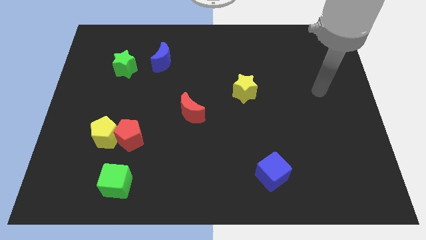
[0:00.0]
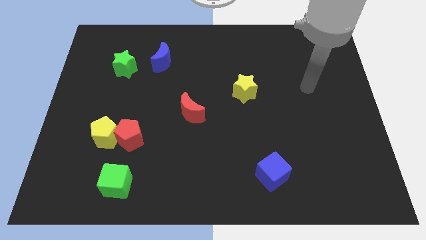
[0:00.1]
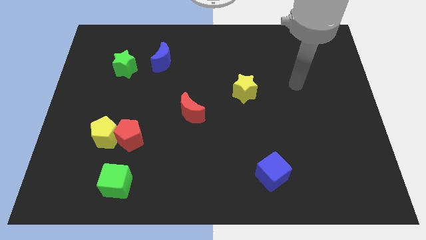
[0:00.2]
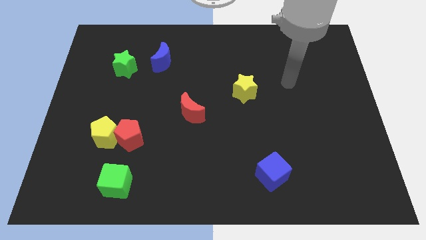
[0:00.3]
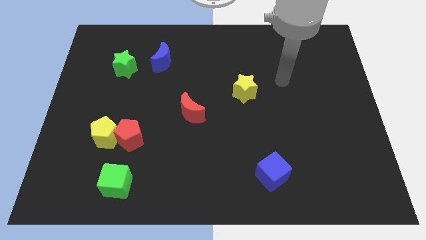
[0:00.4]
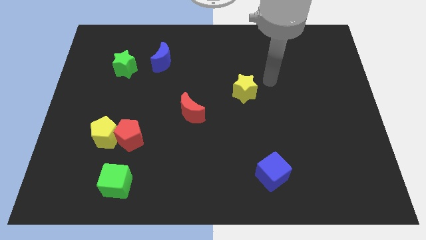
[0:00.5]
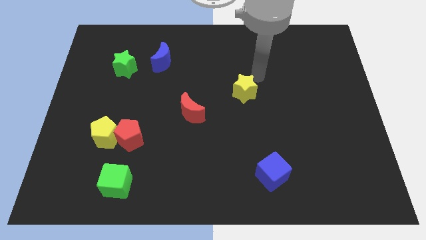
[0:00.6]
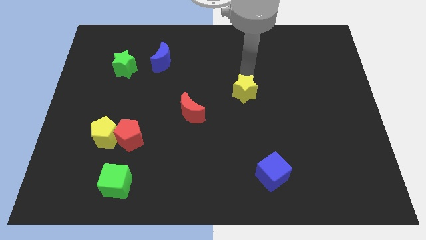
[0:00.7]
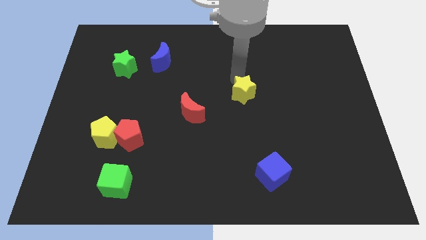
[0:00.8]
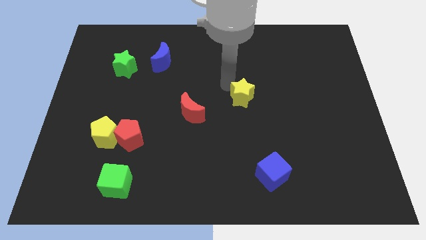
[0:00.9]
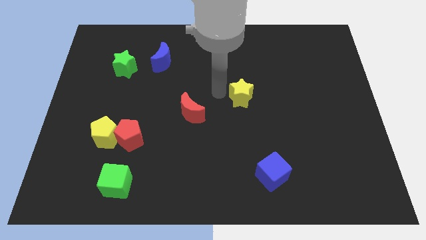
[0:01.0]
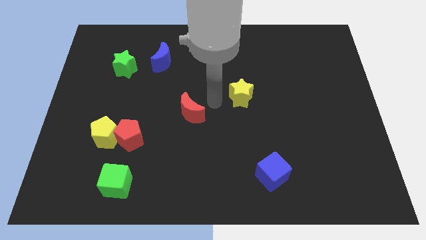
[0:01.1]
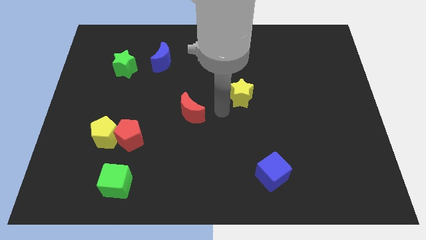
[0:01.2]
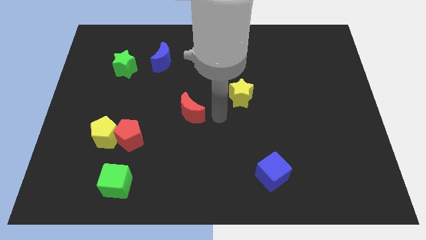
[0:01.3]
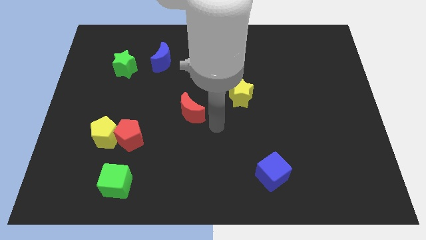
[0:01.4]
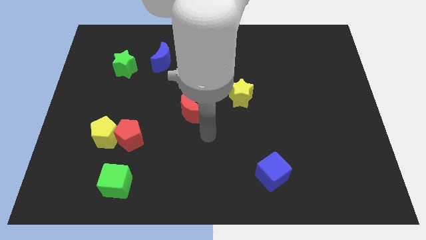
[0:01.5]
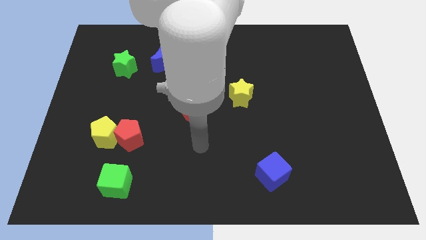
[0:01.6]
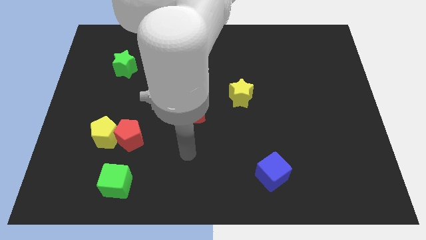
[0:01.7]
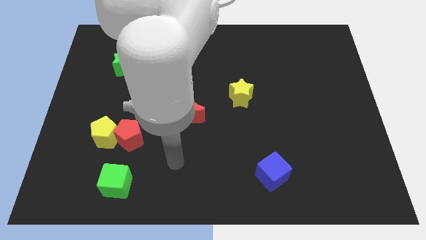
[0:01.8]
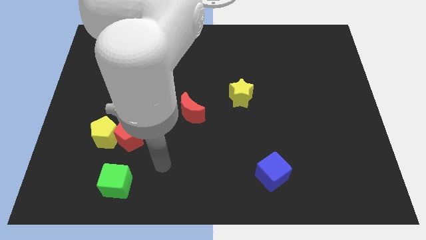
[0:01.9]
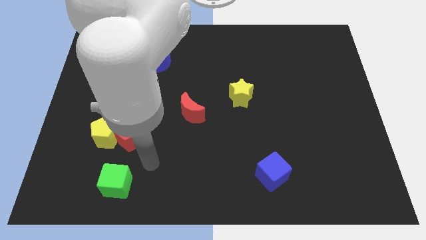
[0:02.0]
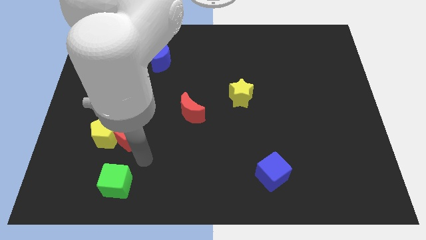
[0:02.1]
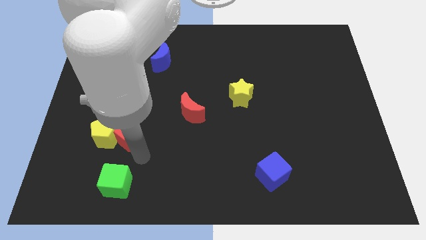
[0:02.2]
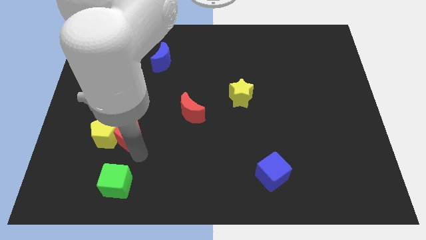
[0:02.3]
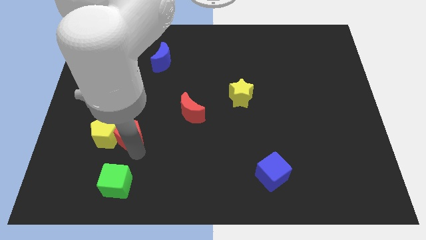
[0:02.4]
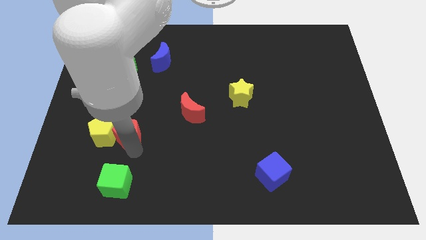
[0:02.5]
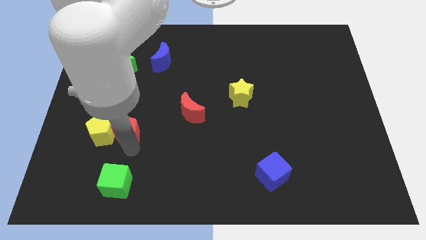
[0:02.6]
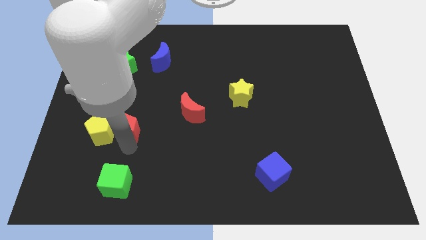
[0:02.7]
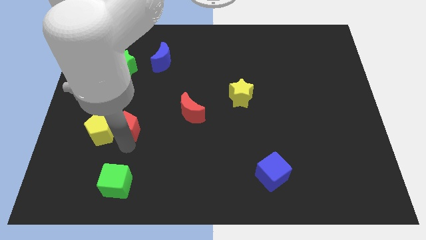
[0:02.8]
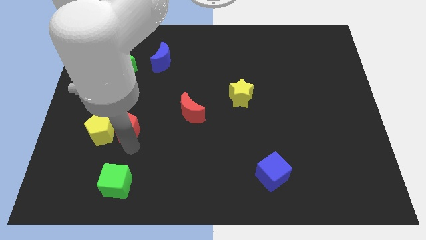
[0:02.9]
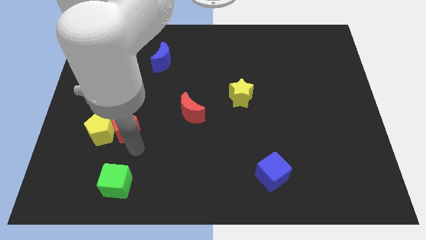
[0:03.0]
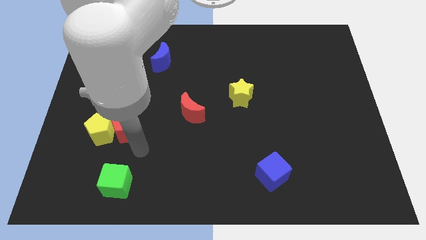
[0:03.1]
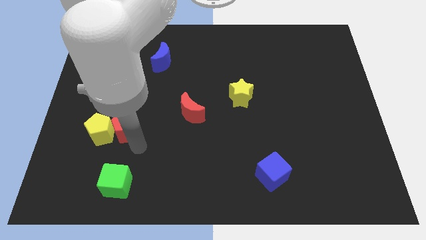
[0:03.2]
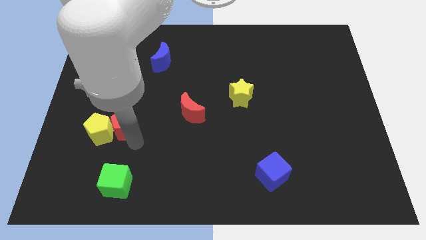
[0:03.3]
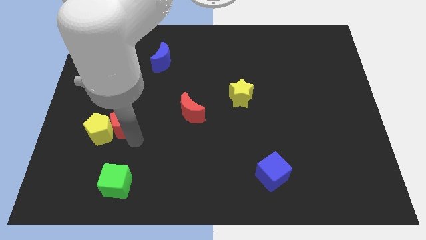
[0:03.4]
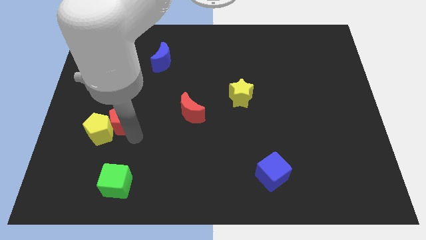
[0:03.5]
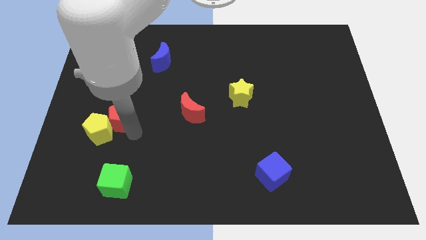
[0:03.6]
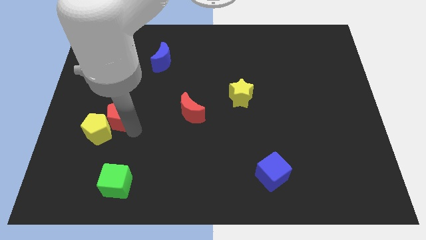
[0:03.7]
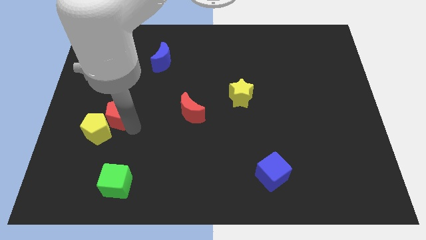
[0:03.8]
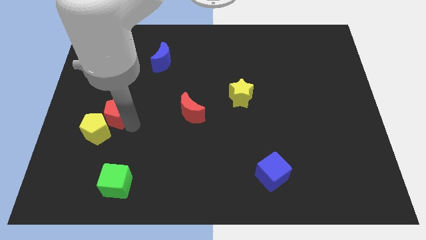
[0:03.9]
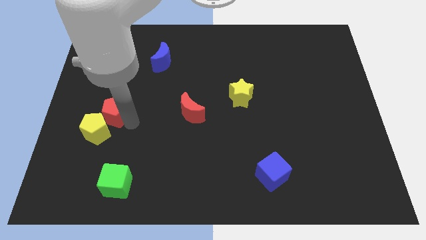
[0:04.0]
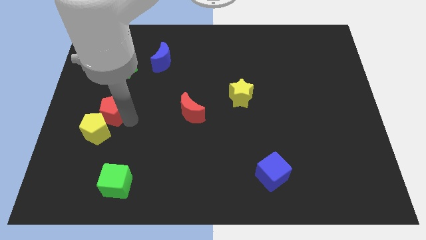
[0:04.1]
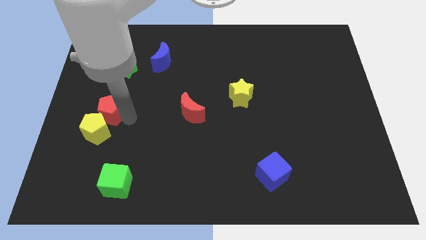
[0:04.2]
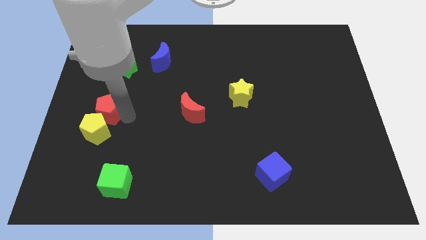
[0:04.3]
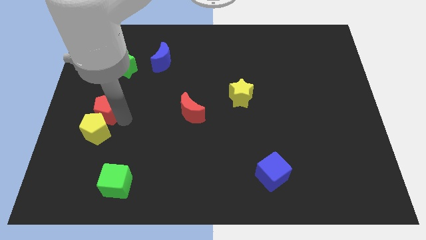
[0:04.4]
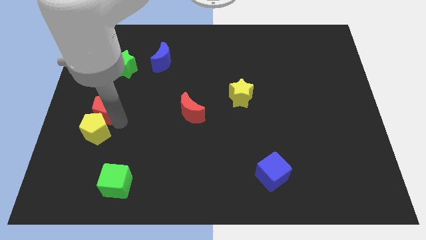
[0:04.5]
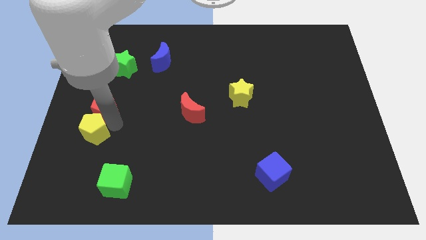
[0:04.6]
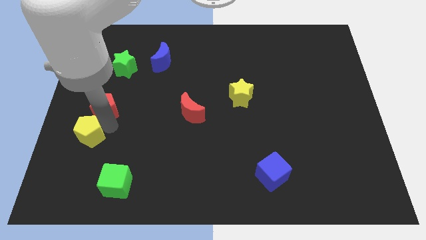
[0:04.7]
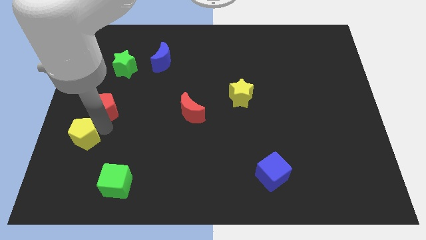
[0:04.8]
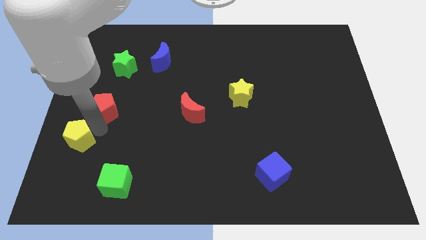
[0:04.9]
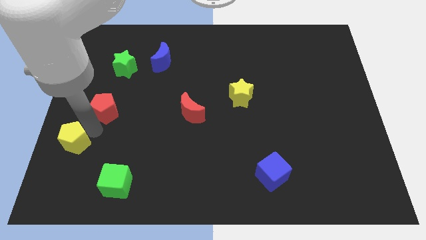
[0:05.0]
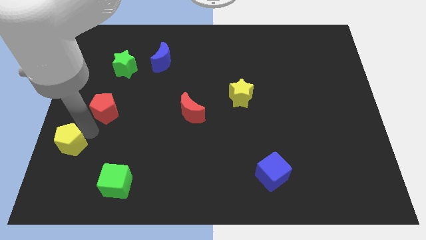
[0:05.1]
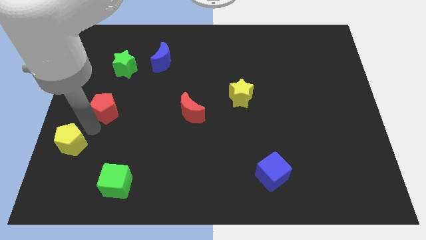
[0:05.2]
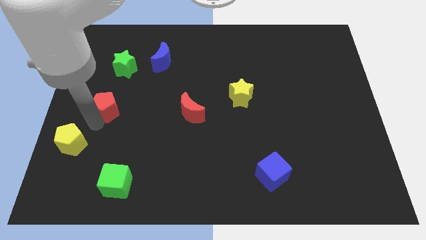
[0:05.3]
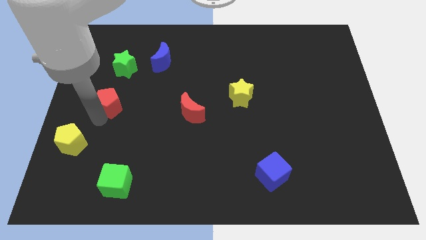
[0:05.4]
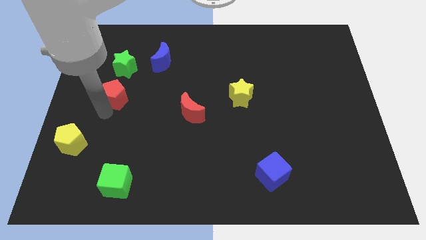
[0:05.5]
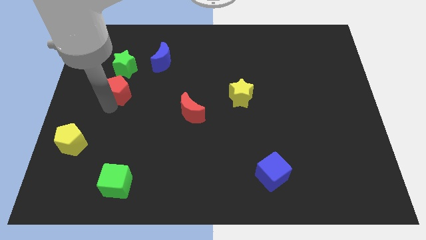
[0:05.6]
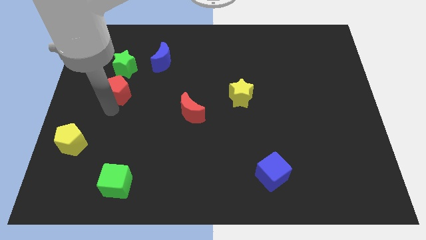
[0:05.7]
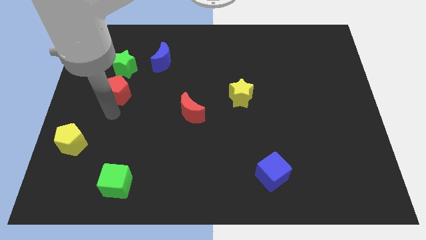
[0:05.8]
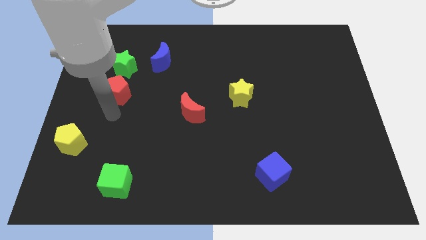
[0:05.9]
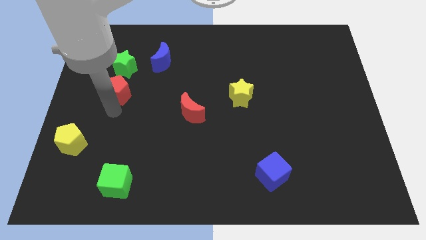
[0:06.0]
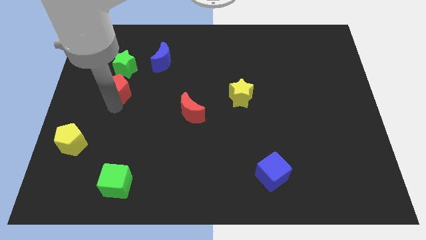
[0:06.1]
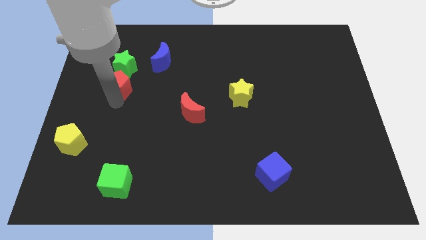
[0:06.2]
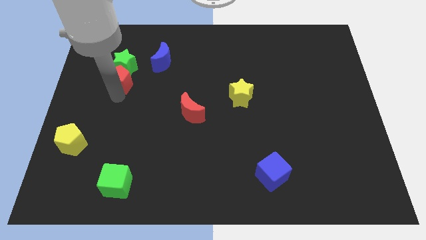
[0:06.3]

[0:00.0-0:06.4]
put the red pentagon towards the green star
